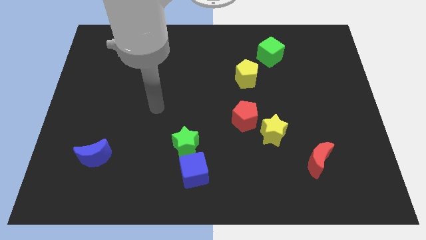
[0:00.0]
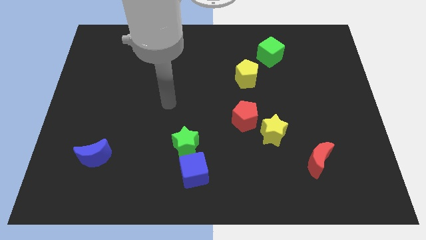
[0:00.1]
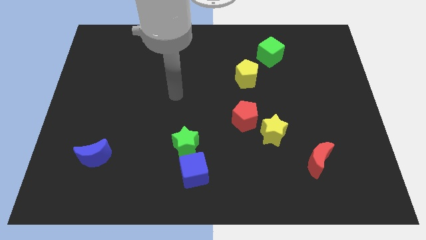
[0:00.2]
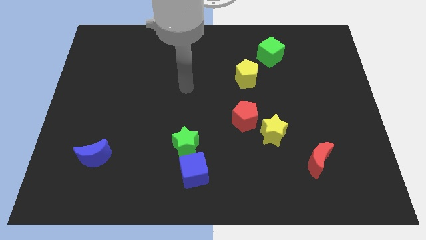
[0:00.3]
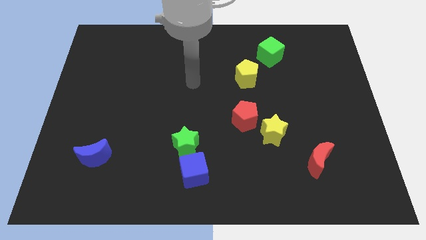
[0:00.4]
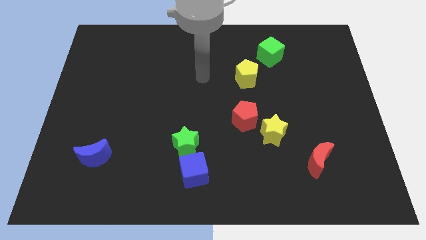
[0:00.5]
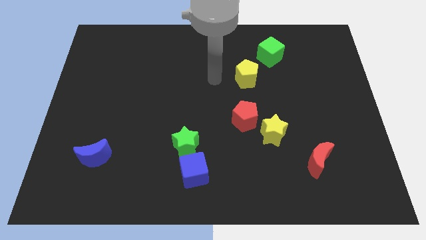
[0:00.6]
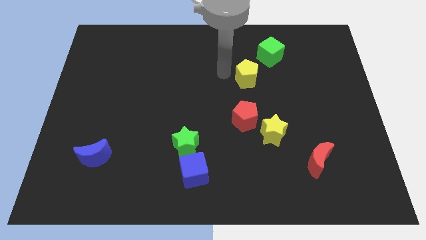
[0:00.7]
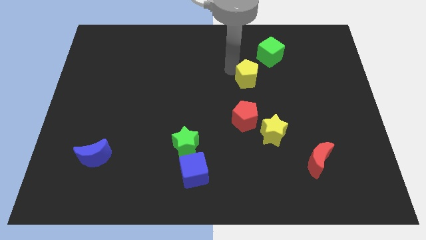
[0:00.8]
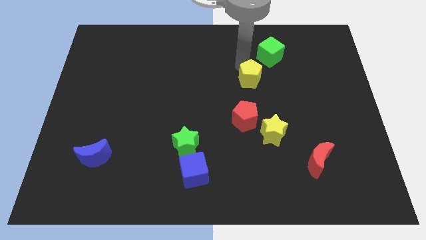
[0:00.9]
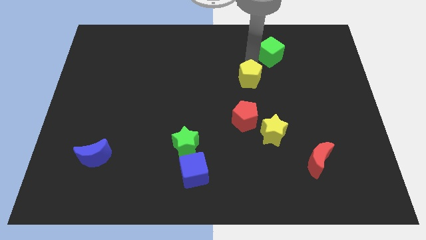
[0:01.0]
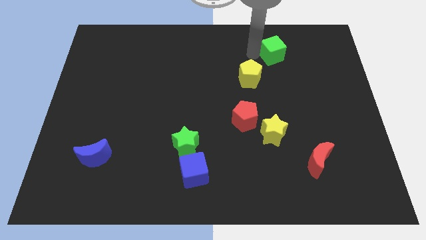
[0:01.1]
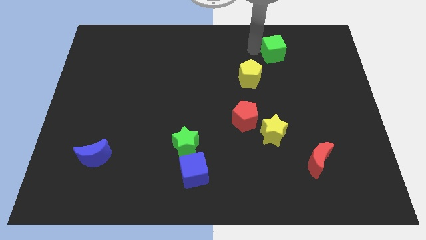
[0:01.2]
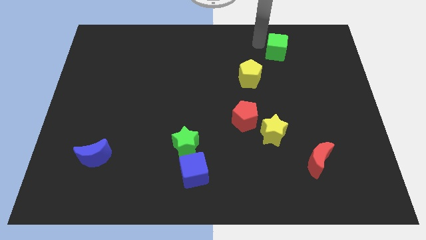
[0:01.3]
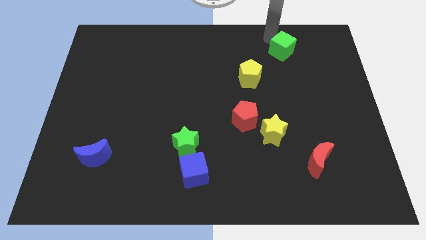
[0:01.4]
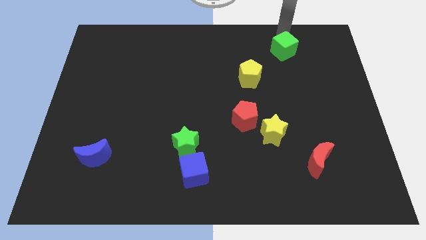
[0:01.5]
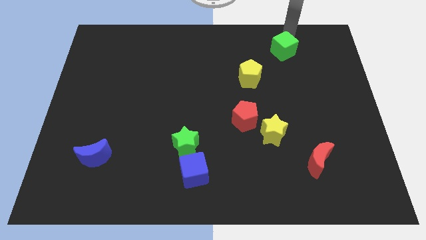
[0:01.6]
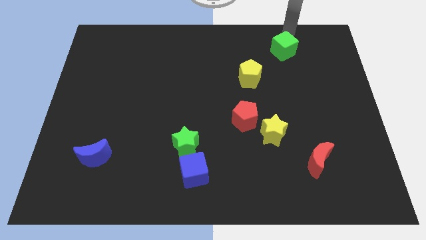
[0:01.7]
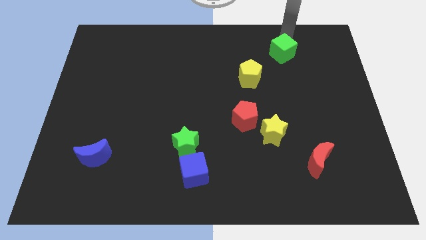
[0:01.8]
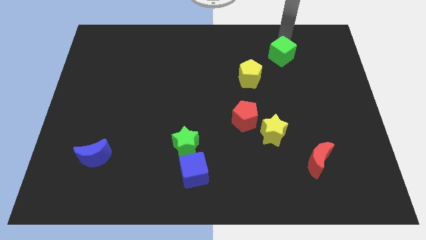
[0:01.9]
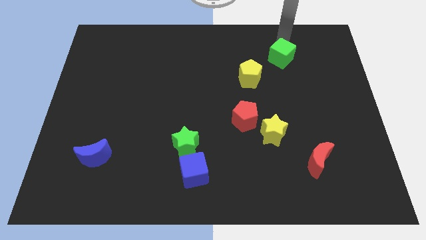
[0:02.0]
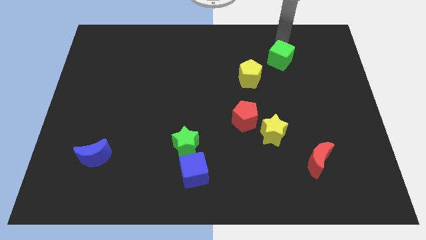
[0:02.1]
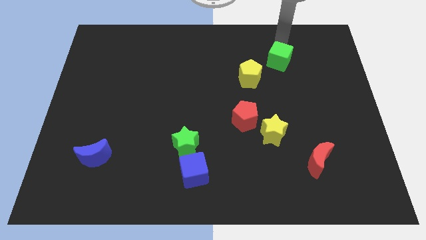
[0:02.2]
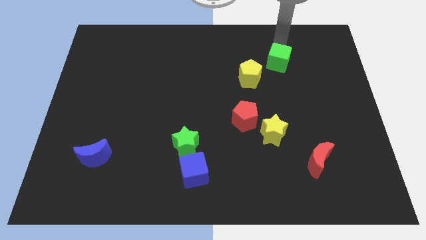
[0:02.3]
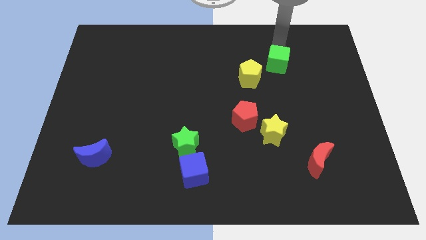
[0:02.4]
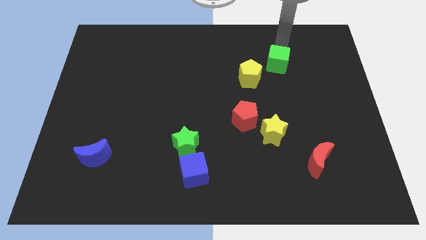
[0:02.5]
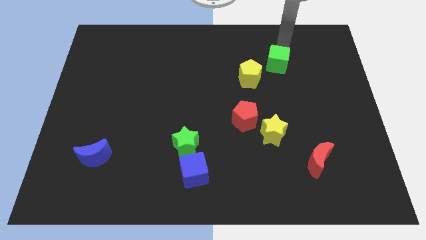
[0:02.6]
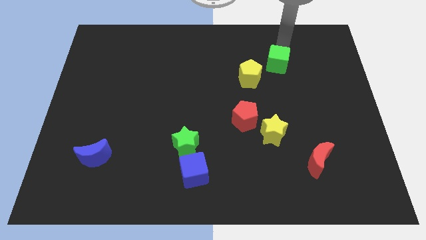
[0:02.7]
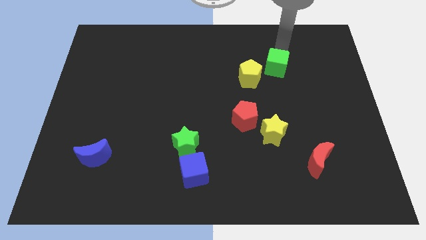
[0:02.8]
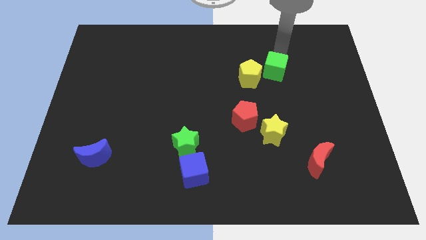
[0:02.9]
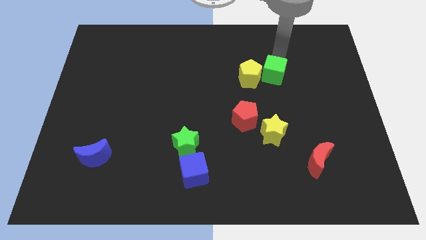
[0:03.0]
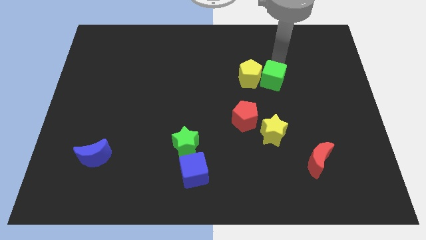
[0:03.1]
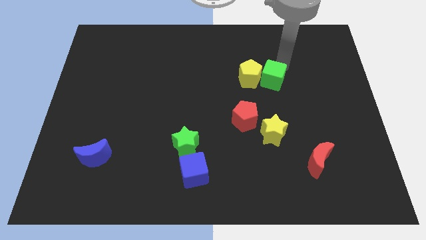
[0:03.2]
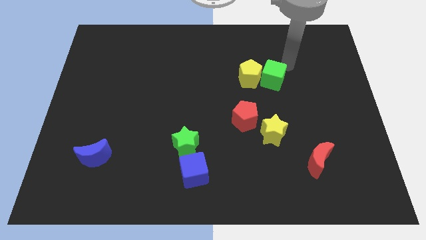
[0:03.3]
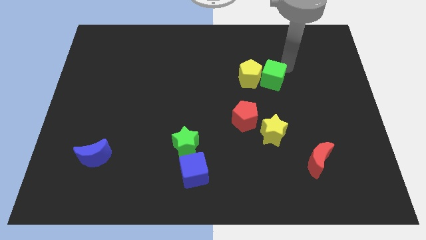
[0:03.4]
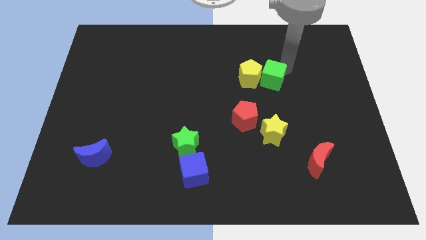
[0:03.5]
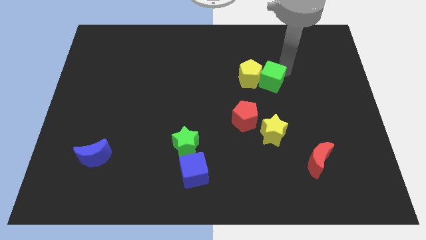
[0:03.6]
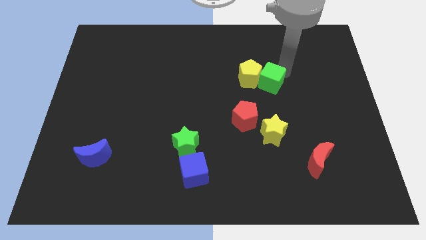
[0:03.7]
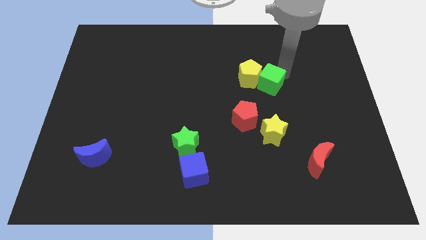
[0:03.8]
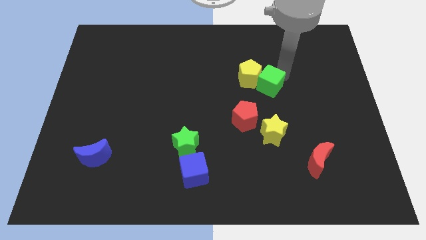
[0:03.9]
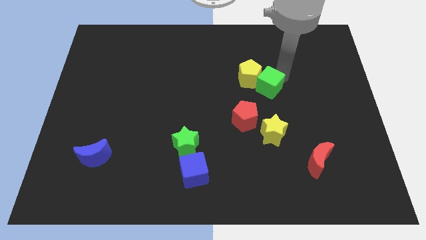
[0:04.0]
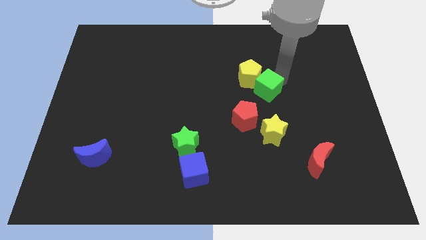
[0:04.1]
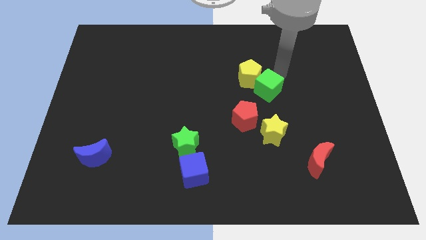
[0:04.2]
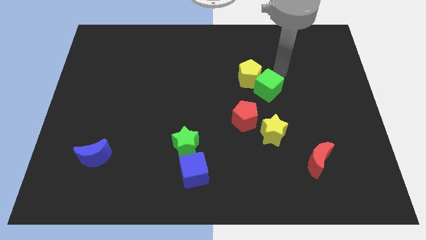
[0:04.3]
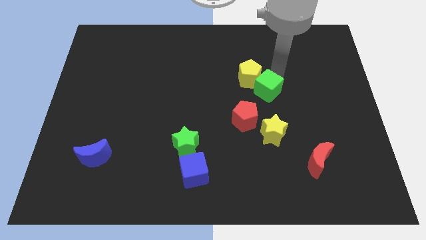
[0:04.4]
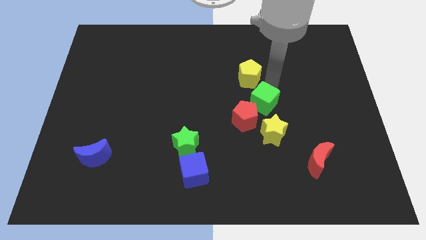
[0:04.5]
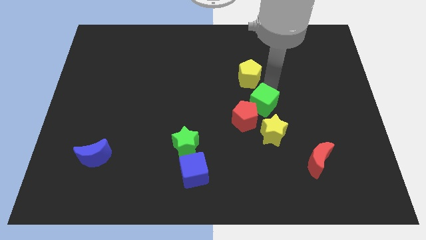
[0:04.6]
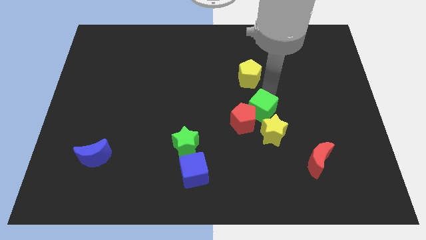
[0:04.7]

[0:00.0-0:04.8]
slide the green cube to the red pentagon

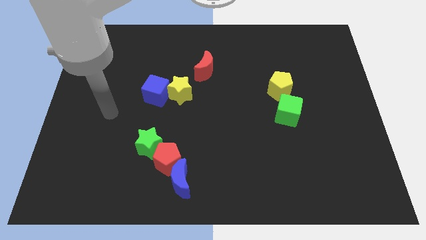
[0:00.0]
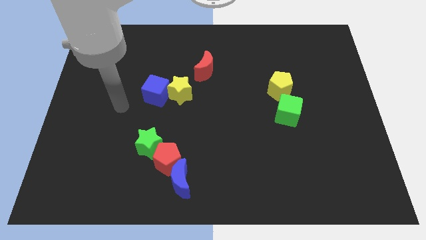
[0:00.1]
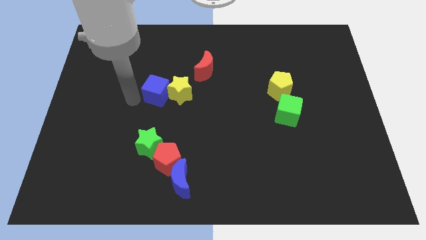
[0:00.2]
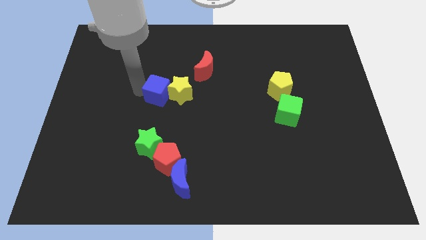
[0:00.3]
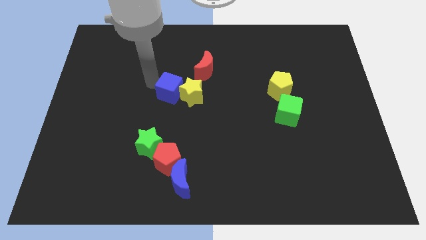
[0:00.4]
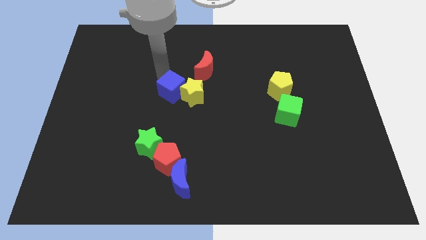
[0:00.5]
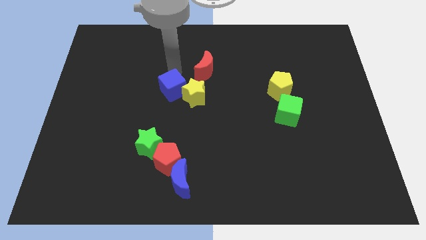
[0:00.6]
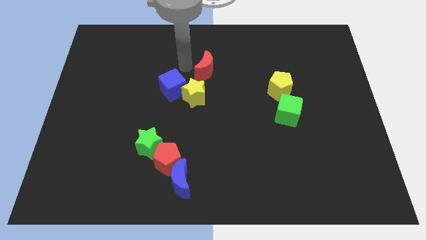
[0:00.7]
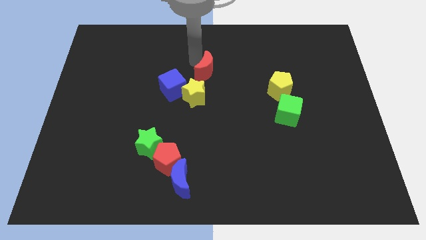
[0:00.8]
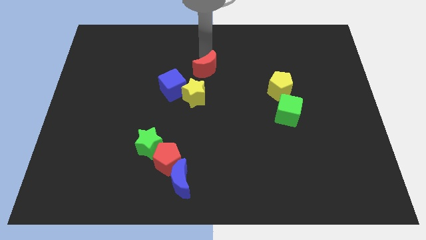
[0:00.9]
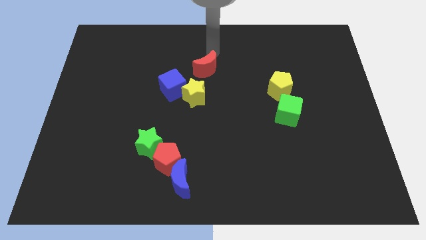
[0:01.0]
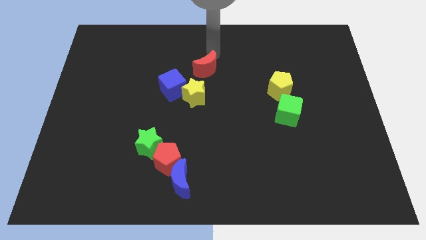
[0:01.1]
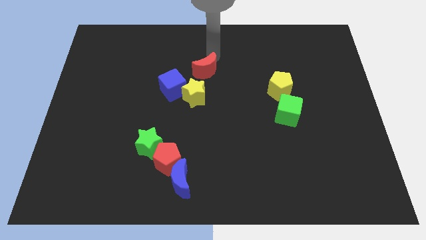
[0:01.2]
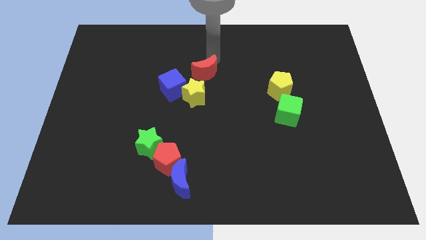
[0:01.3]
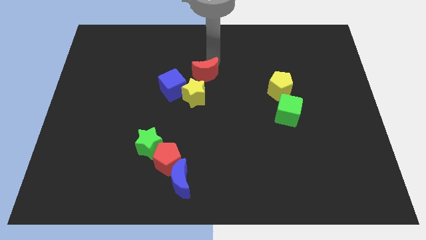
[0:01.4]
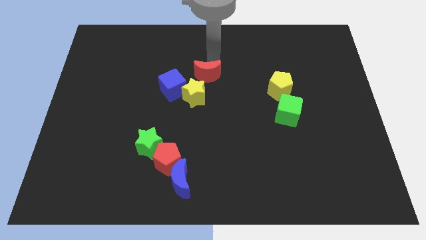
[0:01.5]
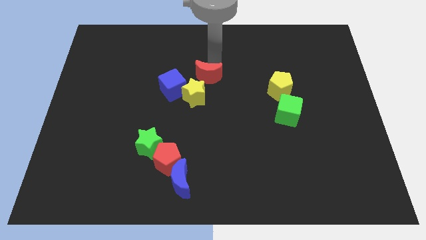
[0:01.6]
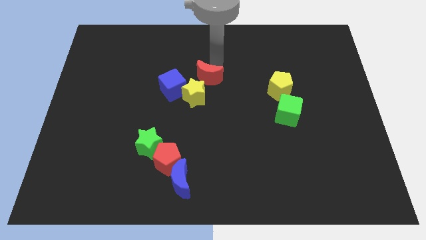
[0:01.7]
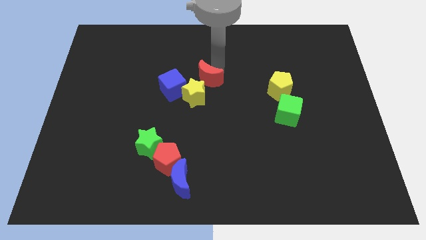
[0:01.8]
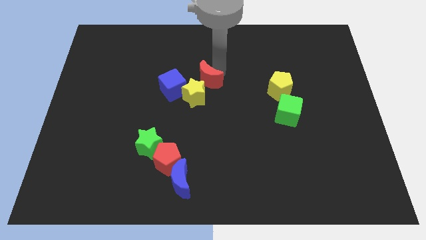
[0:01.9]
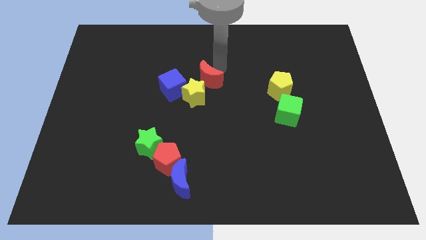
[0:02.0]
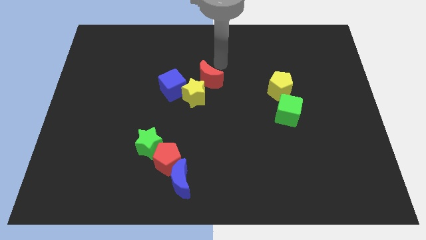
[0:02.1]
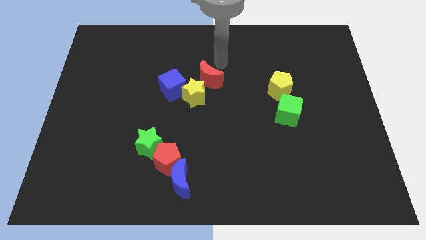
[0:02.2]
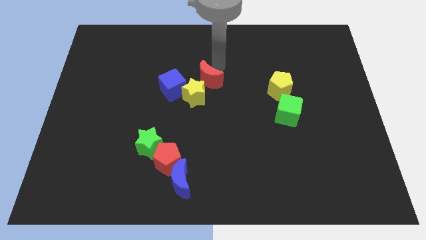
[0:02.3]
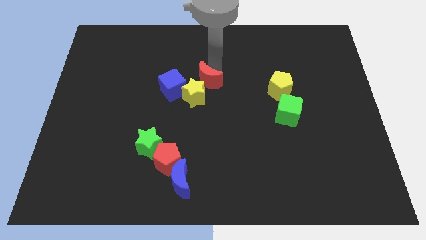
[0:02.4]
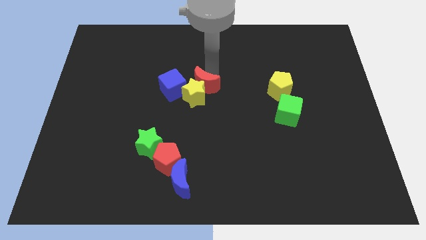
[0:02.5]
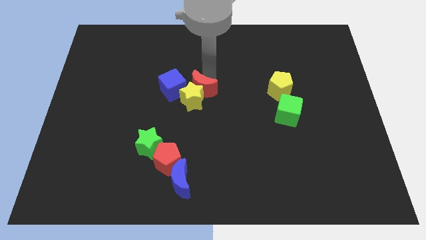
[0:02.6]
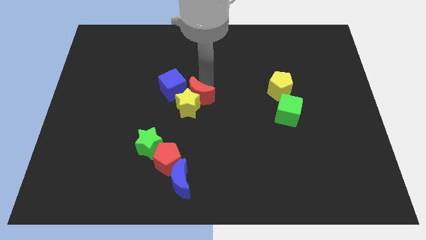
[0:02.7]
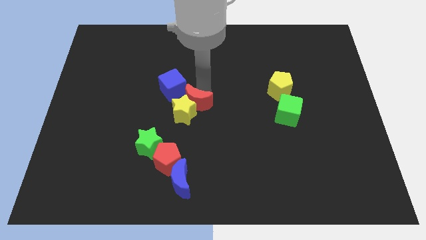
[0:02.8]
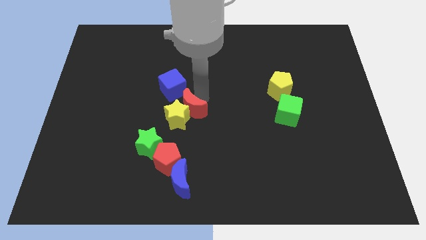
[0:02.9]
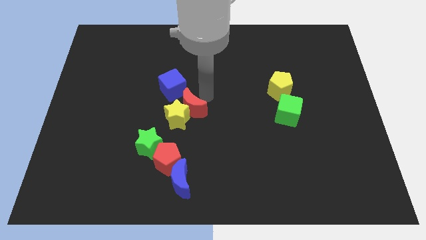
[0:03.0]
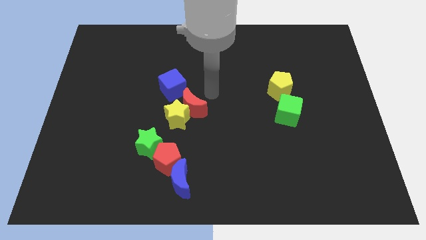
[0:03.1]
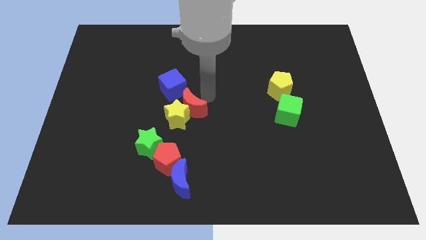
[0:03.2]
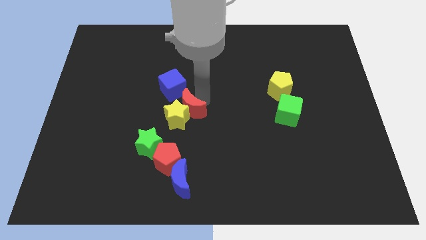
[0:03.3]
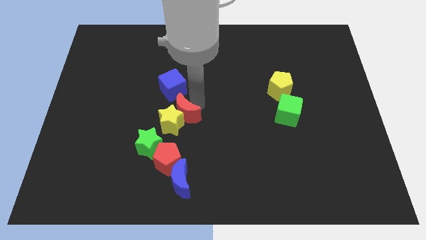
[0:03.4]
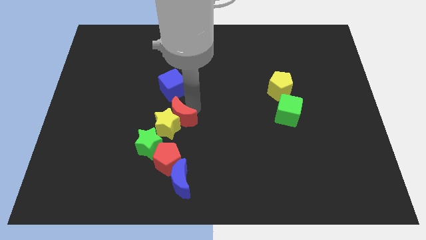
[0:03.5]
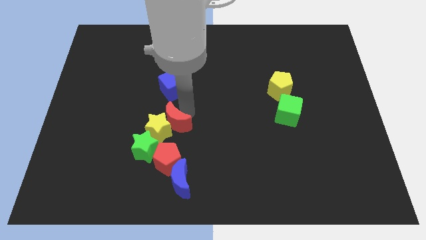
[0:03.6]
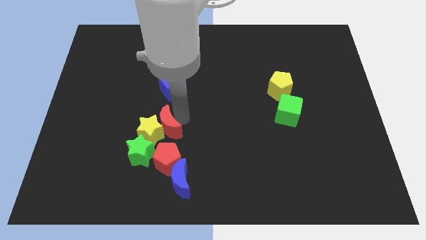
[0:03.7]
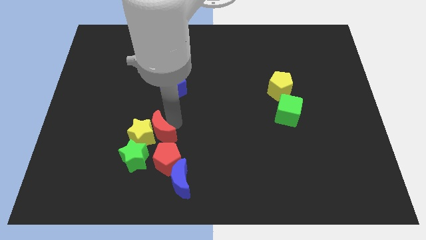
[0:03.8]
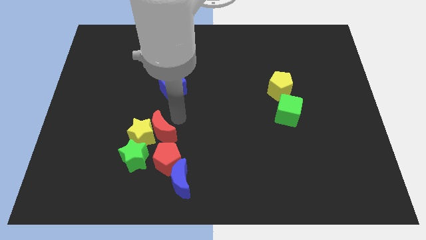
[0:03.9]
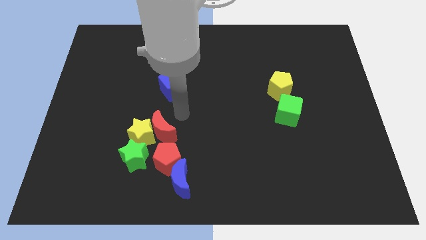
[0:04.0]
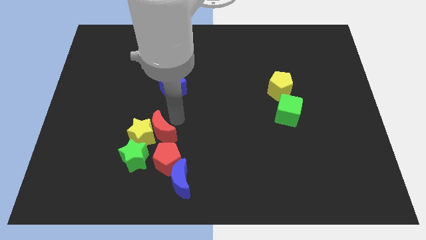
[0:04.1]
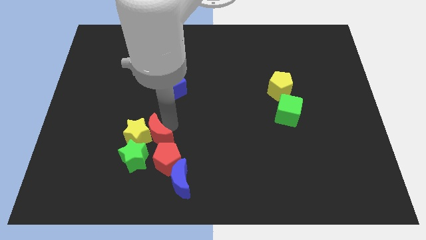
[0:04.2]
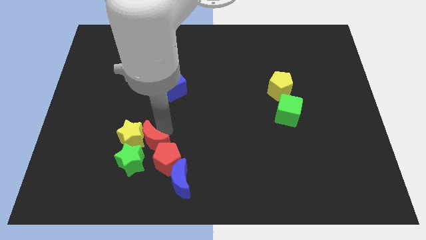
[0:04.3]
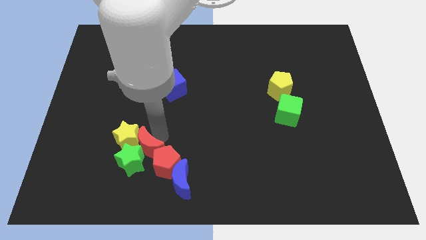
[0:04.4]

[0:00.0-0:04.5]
put the red moon next to the green star
